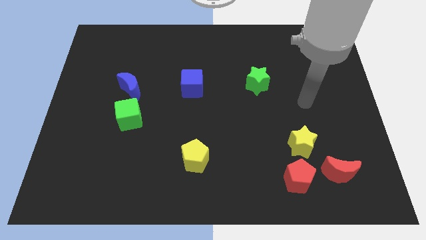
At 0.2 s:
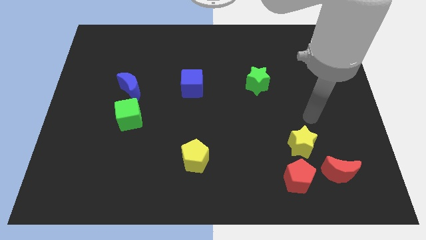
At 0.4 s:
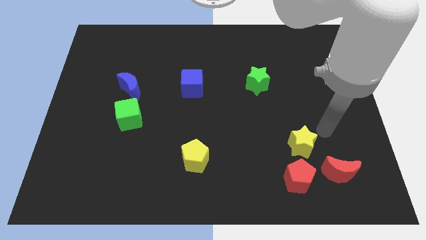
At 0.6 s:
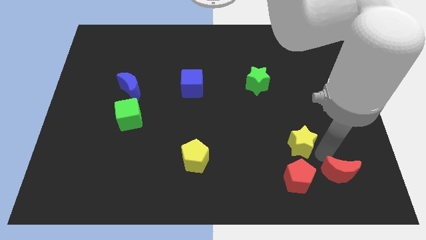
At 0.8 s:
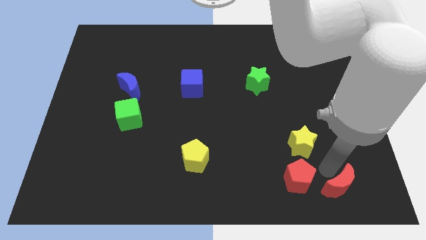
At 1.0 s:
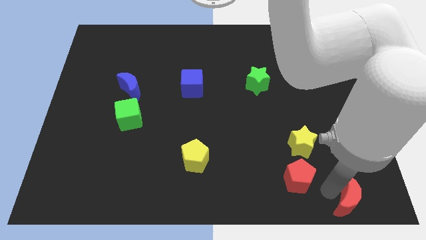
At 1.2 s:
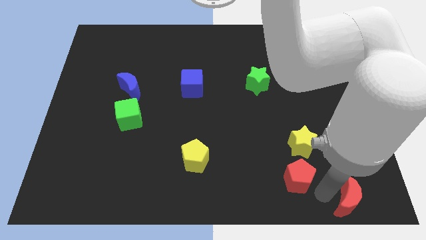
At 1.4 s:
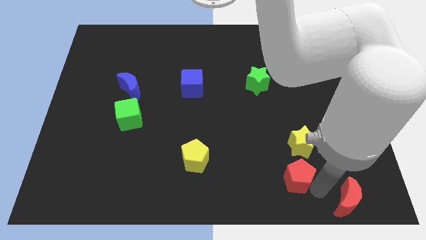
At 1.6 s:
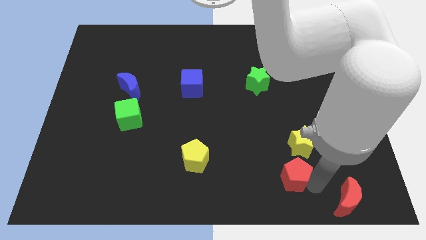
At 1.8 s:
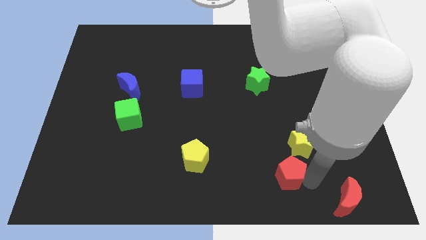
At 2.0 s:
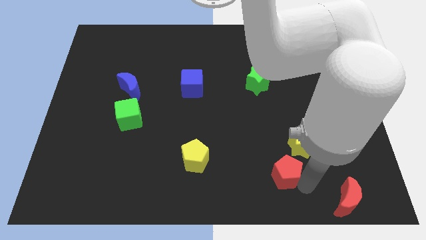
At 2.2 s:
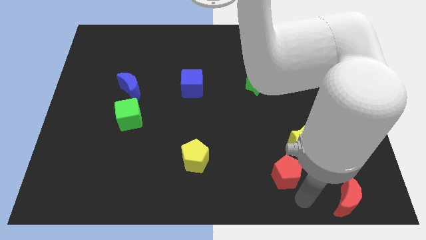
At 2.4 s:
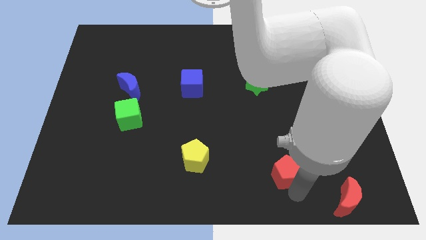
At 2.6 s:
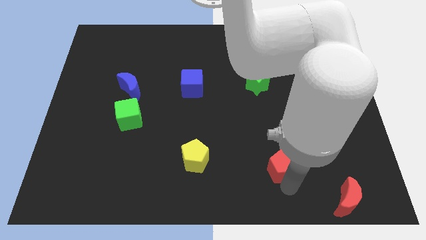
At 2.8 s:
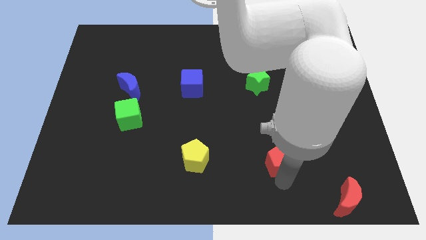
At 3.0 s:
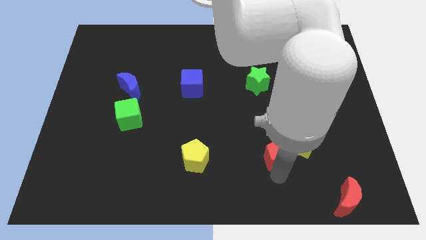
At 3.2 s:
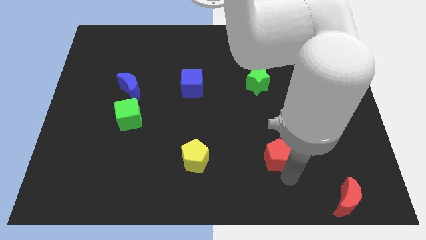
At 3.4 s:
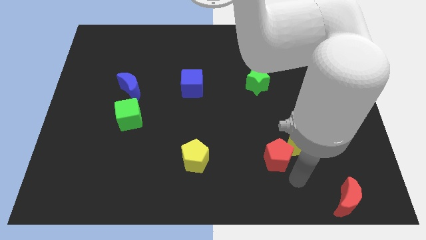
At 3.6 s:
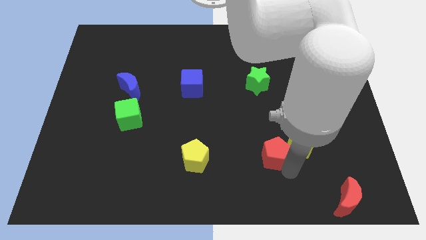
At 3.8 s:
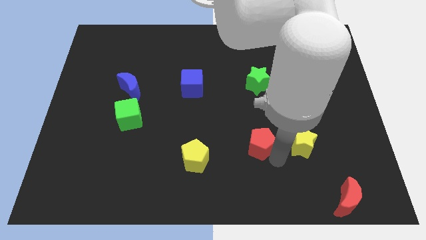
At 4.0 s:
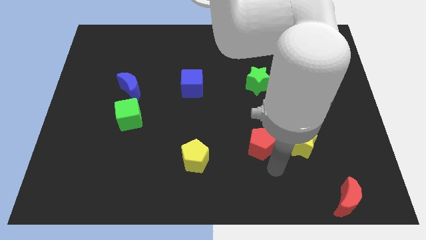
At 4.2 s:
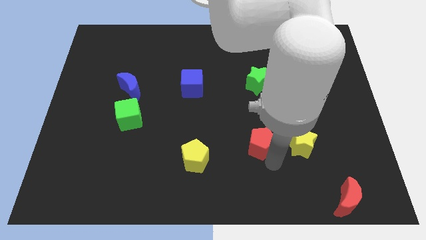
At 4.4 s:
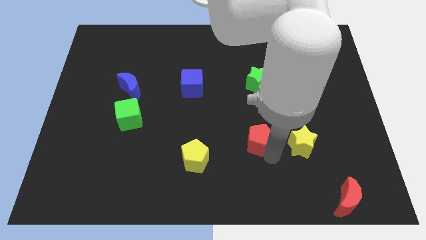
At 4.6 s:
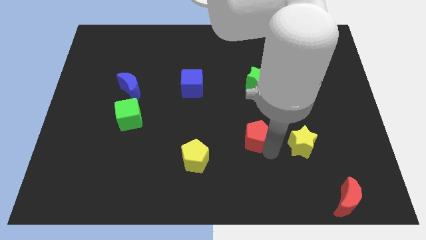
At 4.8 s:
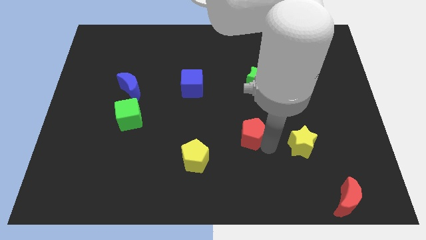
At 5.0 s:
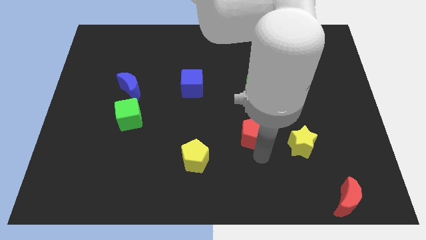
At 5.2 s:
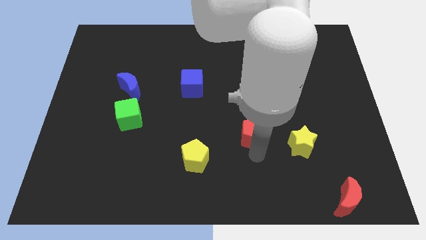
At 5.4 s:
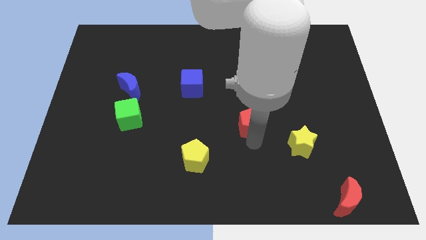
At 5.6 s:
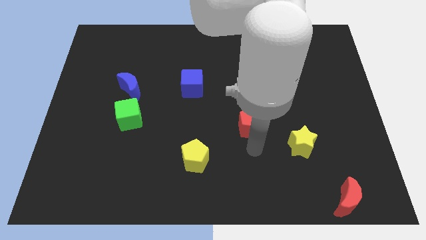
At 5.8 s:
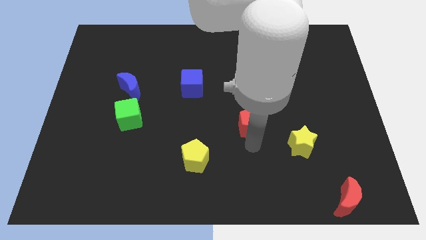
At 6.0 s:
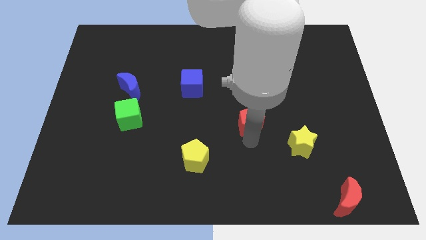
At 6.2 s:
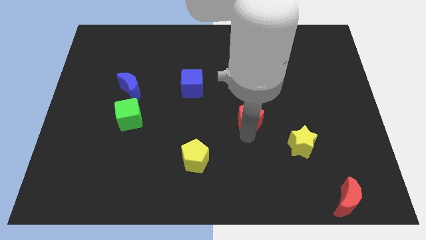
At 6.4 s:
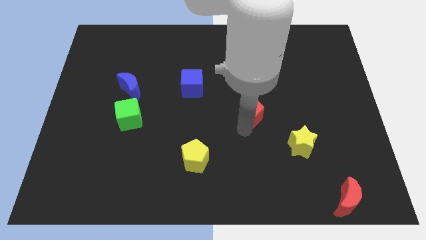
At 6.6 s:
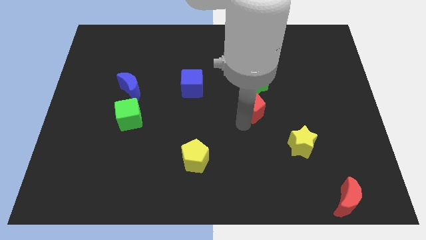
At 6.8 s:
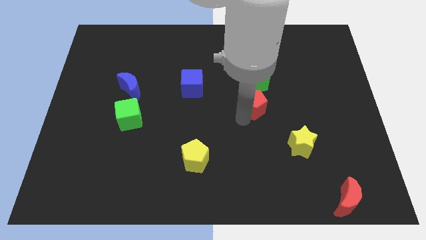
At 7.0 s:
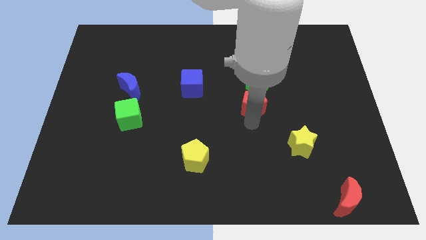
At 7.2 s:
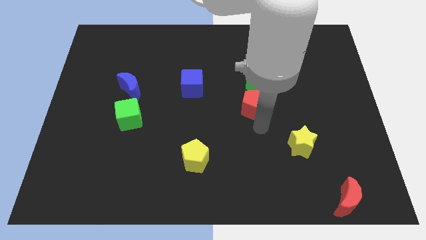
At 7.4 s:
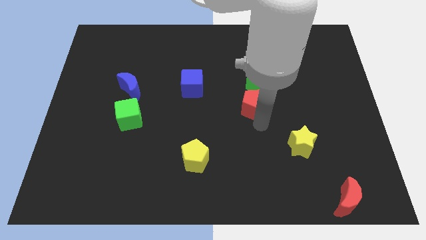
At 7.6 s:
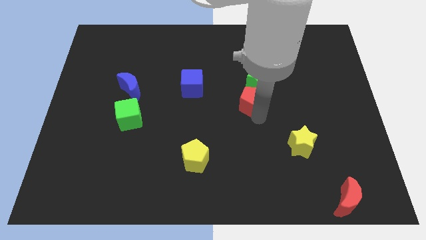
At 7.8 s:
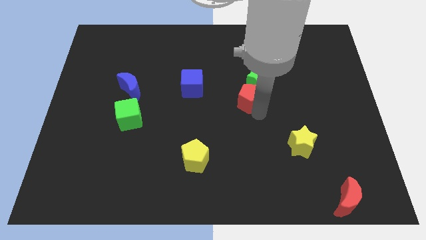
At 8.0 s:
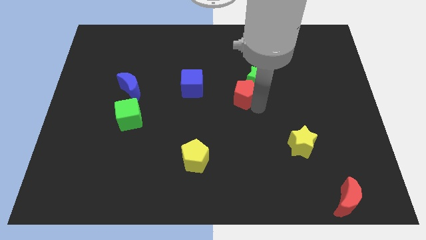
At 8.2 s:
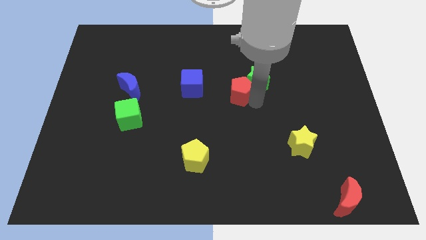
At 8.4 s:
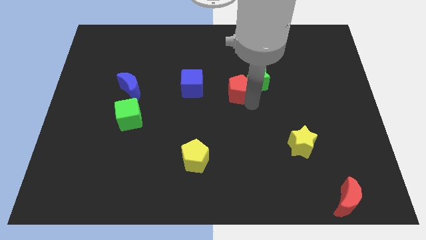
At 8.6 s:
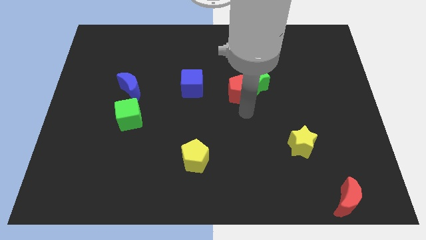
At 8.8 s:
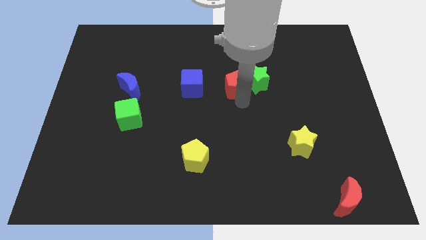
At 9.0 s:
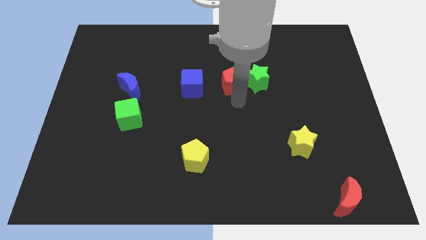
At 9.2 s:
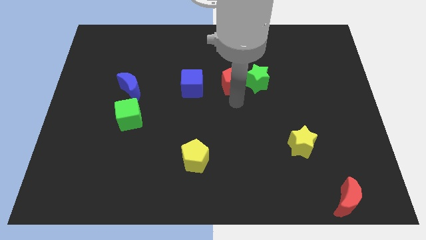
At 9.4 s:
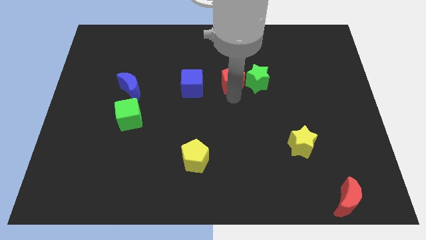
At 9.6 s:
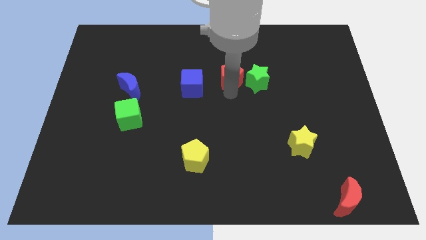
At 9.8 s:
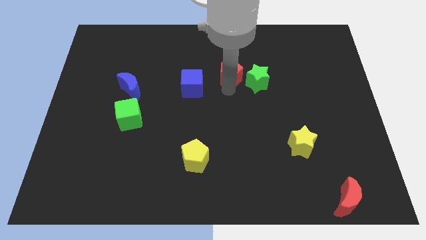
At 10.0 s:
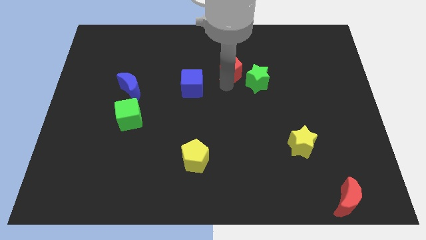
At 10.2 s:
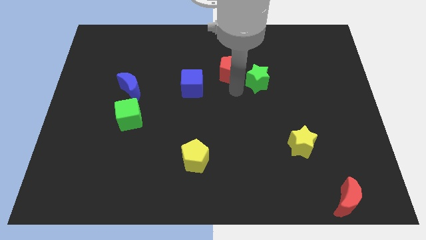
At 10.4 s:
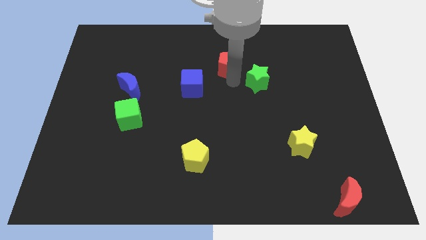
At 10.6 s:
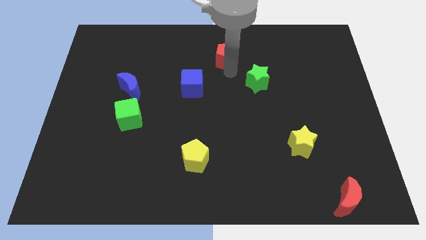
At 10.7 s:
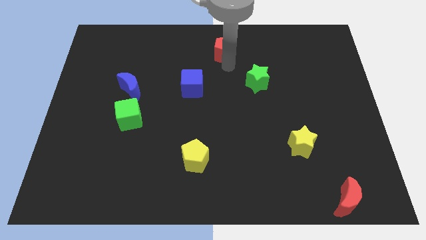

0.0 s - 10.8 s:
move the red pentagon to the towards your base

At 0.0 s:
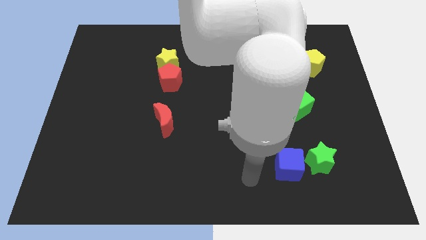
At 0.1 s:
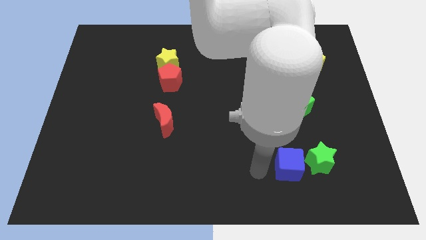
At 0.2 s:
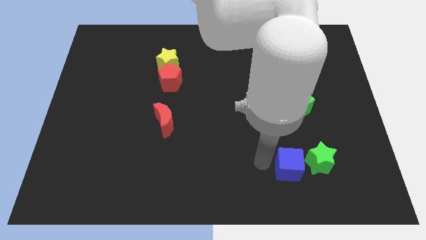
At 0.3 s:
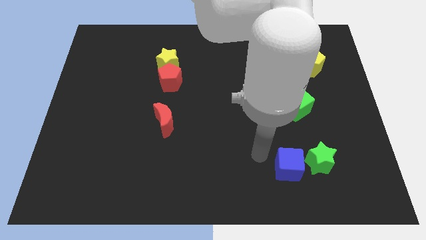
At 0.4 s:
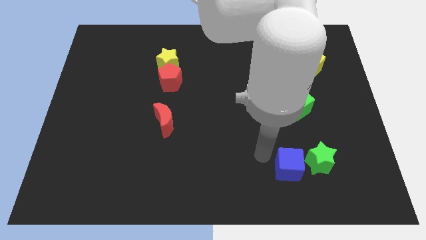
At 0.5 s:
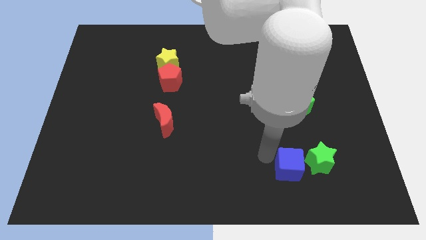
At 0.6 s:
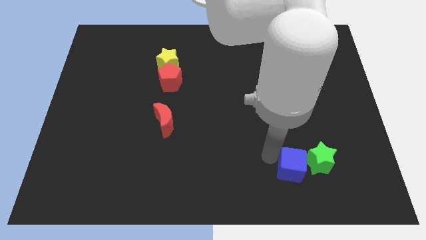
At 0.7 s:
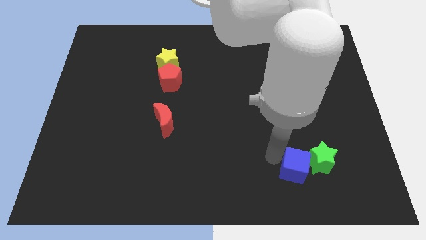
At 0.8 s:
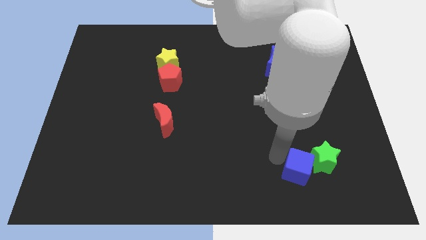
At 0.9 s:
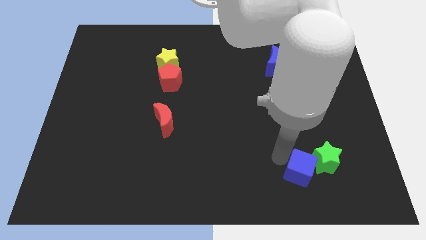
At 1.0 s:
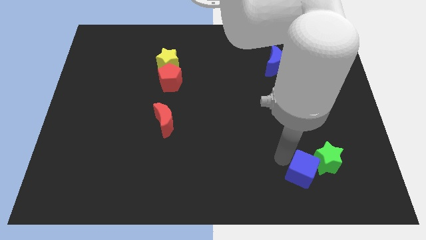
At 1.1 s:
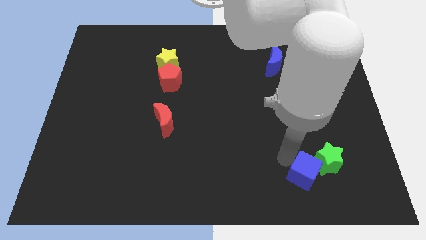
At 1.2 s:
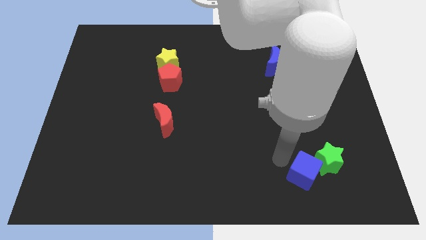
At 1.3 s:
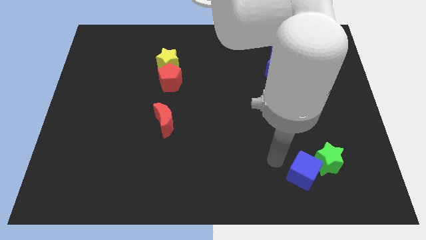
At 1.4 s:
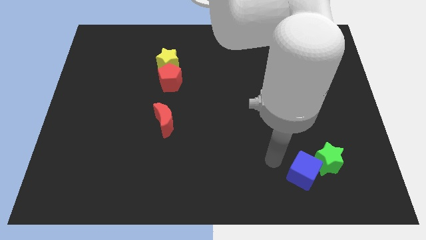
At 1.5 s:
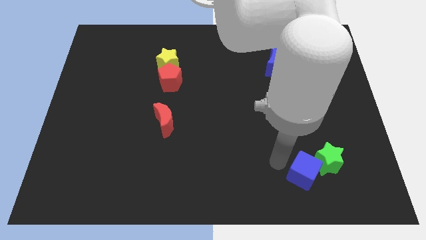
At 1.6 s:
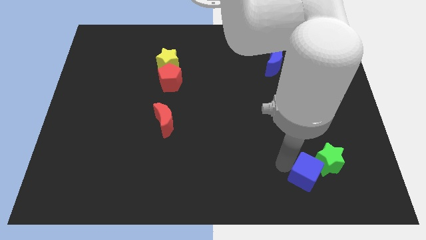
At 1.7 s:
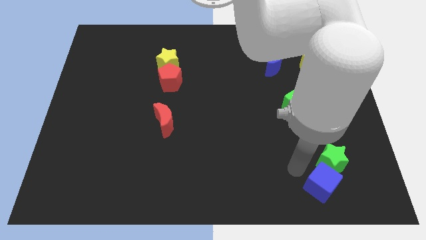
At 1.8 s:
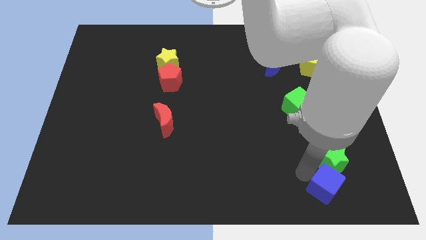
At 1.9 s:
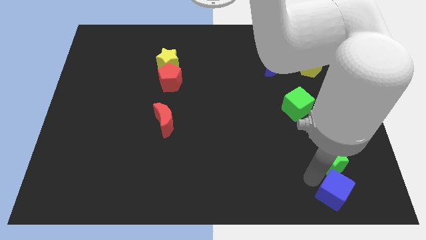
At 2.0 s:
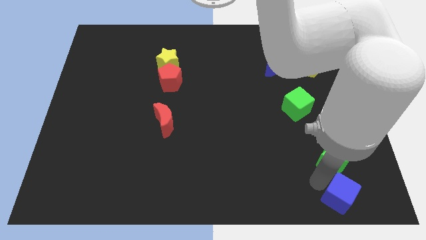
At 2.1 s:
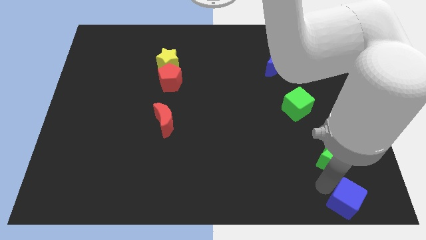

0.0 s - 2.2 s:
slide the blue cube to the bottom right
